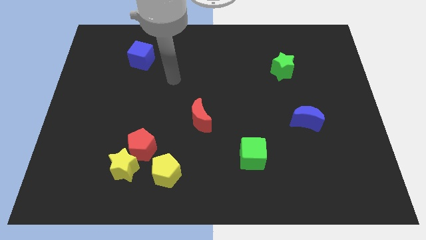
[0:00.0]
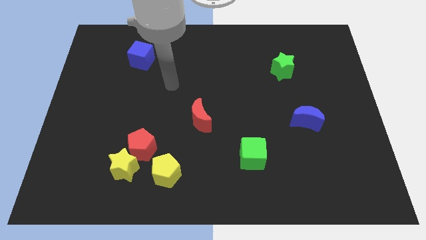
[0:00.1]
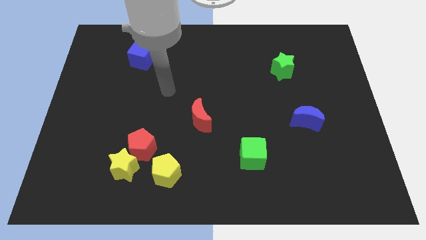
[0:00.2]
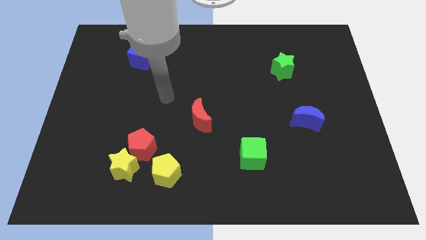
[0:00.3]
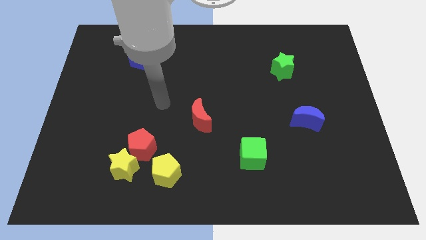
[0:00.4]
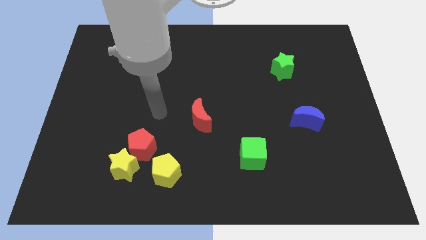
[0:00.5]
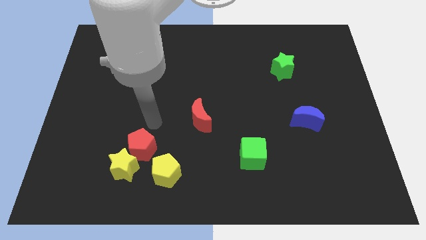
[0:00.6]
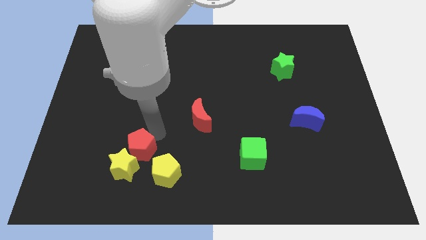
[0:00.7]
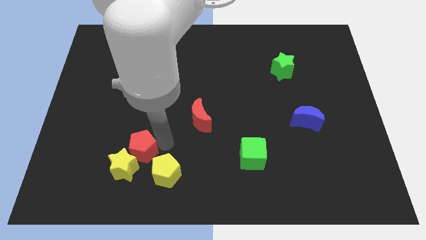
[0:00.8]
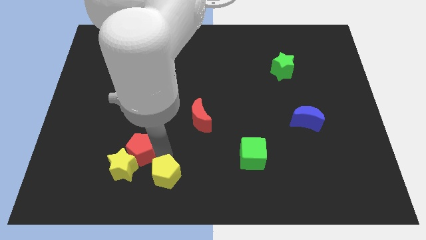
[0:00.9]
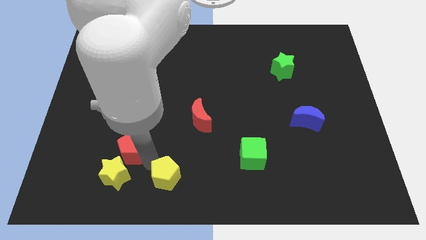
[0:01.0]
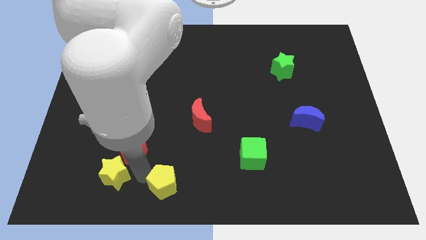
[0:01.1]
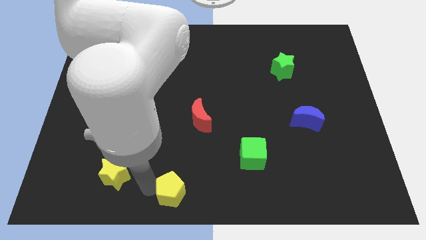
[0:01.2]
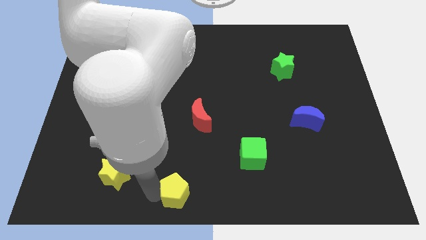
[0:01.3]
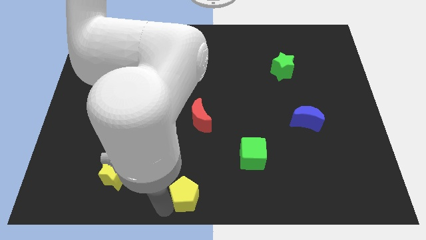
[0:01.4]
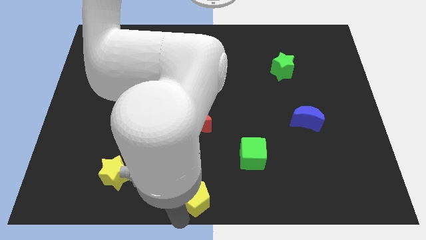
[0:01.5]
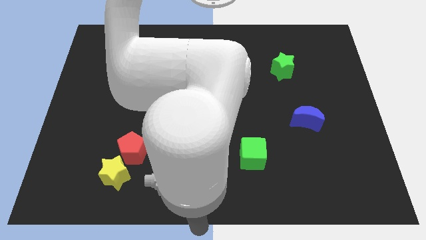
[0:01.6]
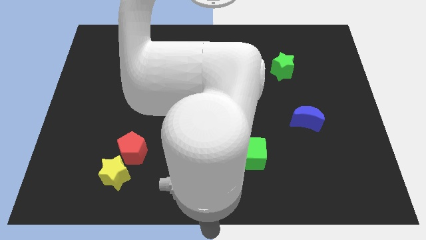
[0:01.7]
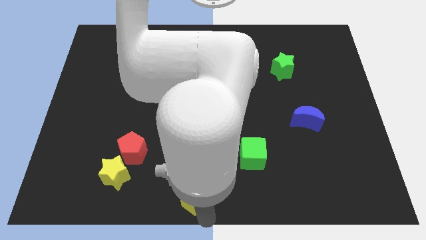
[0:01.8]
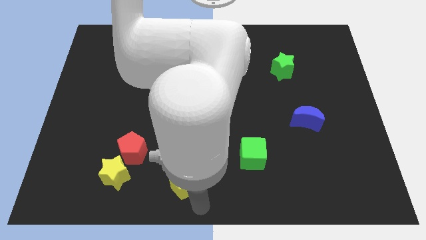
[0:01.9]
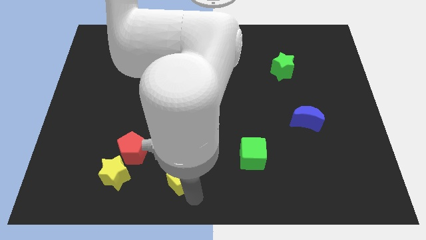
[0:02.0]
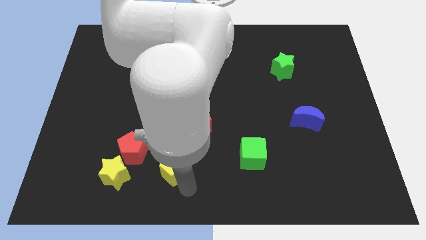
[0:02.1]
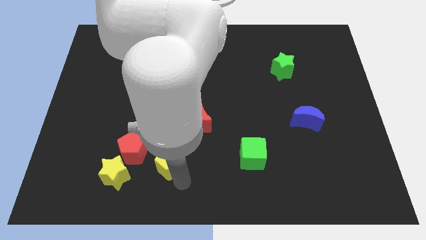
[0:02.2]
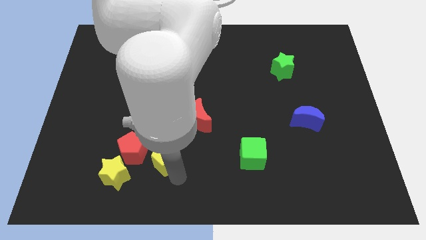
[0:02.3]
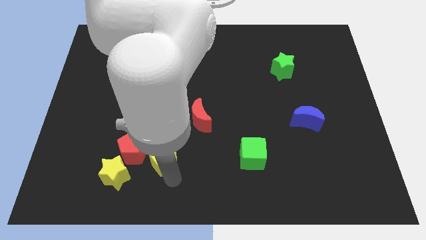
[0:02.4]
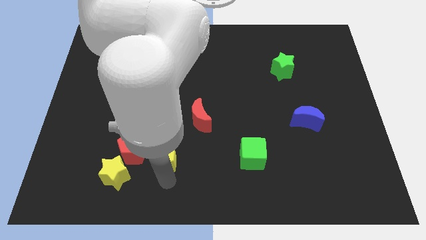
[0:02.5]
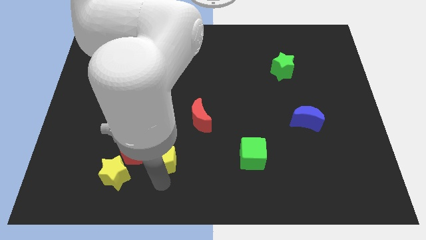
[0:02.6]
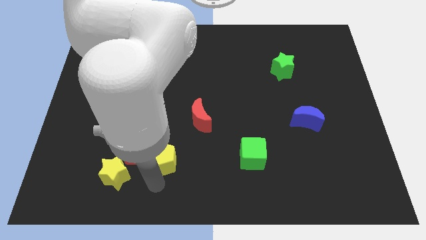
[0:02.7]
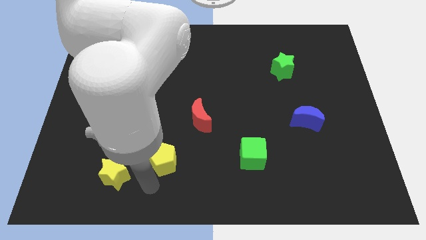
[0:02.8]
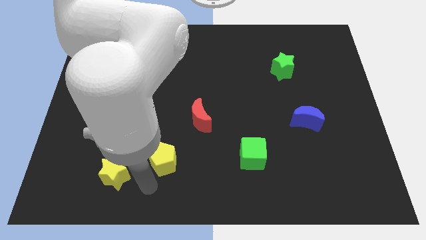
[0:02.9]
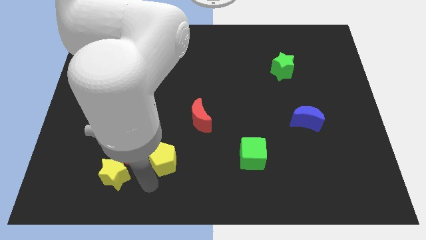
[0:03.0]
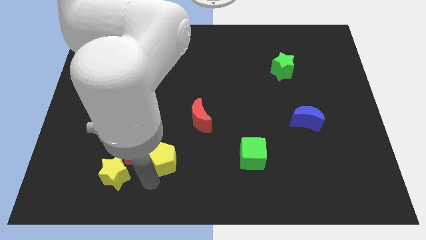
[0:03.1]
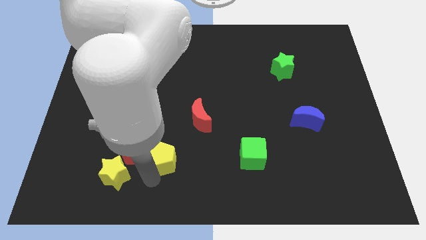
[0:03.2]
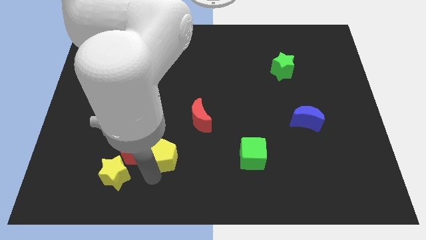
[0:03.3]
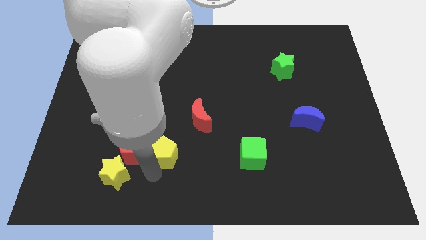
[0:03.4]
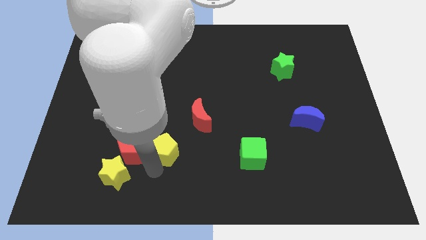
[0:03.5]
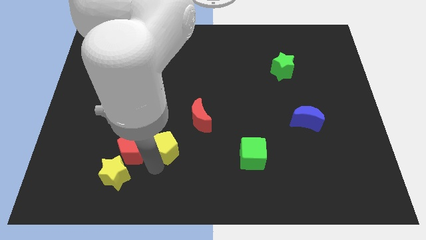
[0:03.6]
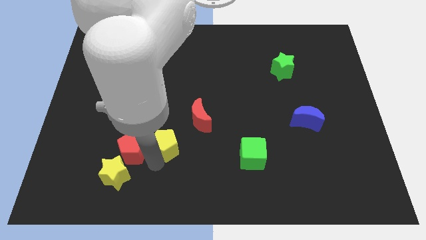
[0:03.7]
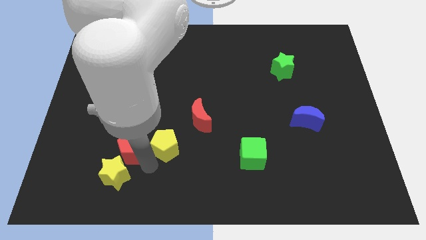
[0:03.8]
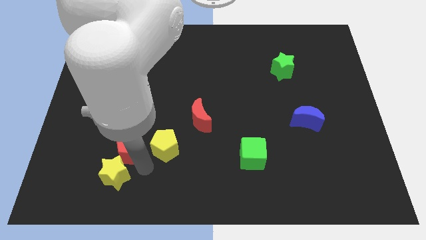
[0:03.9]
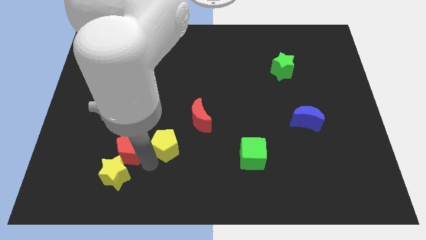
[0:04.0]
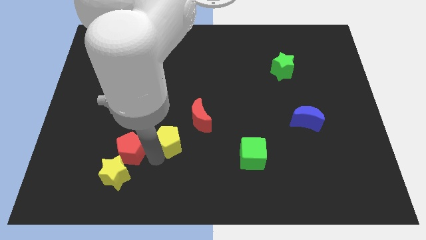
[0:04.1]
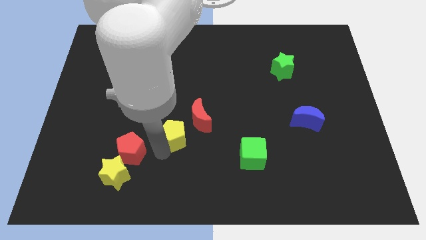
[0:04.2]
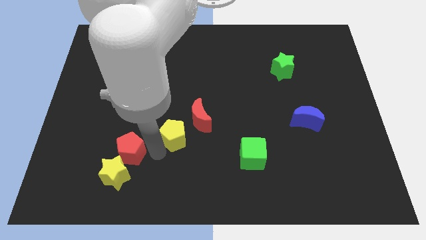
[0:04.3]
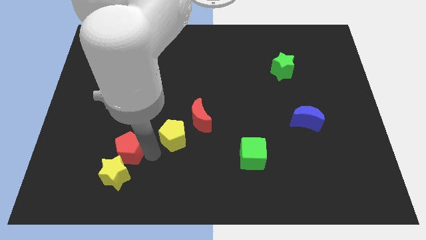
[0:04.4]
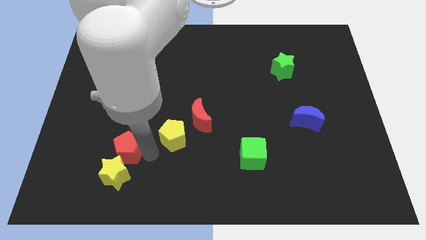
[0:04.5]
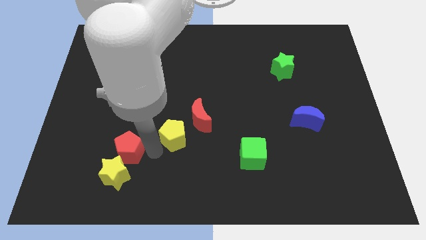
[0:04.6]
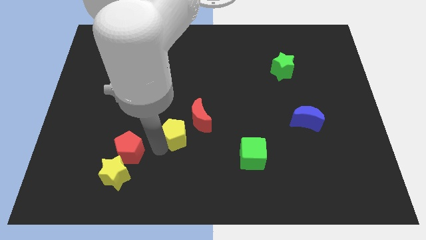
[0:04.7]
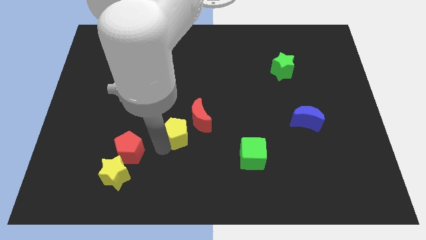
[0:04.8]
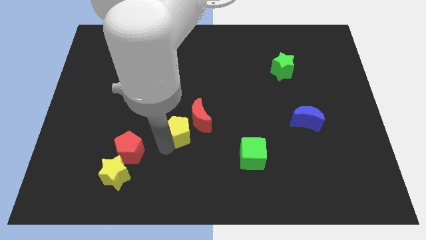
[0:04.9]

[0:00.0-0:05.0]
slide the yellow pentagon next to the red moon

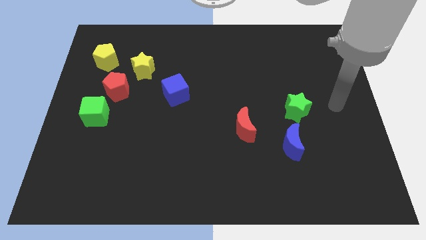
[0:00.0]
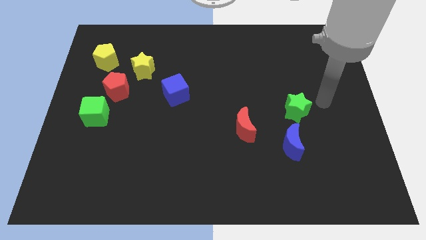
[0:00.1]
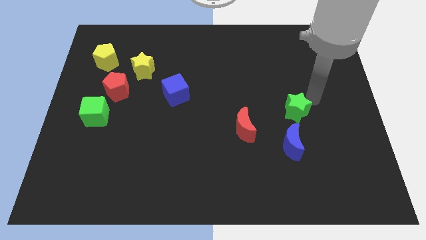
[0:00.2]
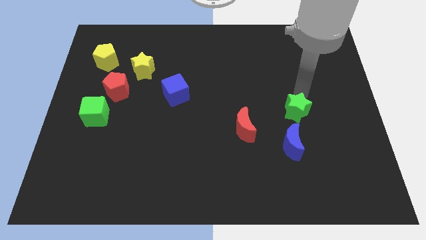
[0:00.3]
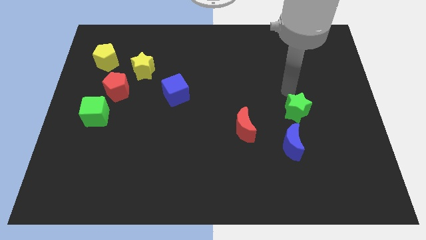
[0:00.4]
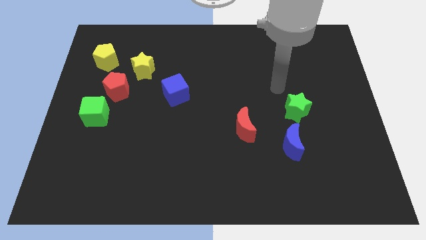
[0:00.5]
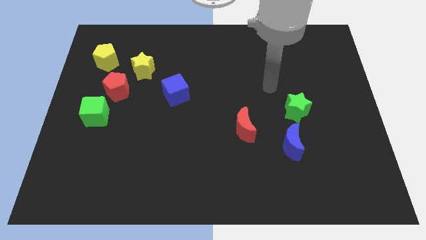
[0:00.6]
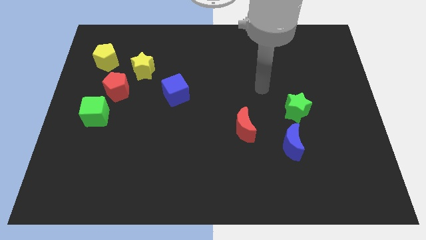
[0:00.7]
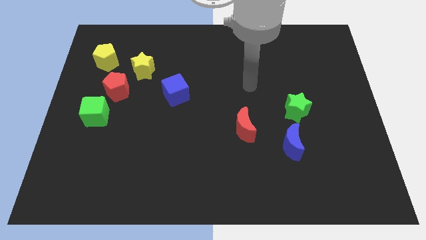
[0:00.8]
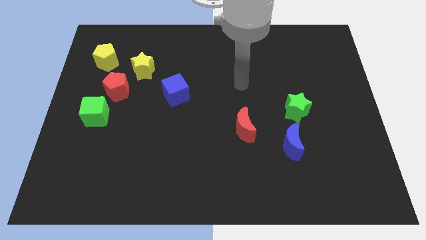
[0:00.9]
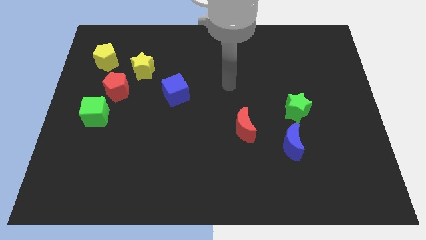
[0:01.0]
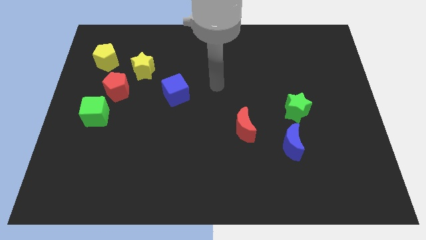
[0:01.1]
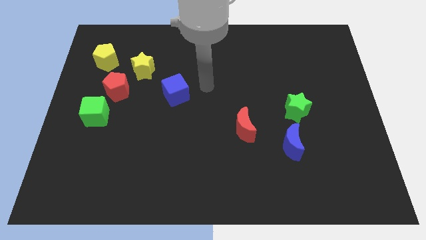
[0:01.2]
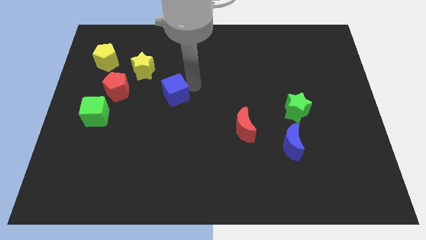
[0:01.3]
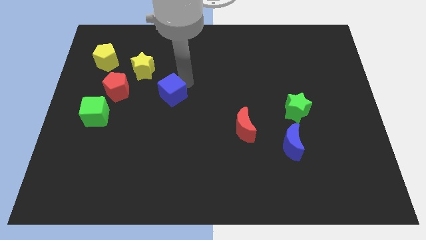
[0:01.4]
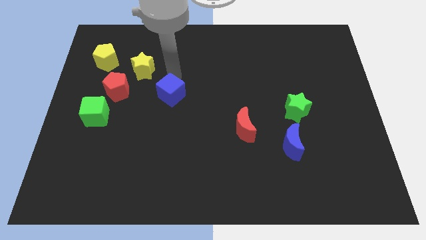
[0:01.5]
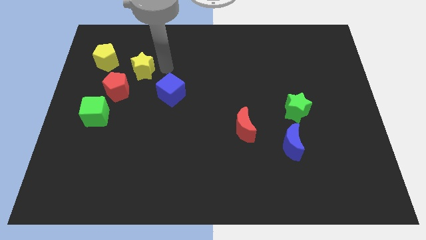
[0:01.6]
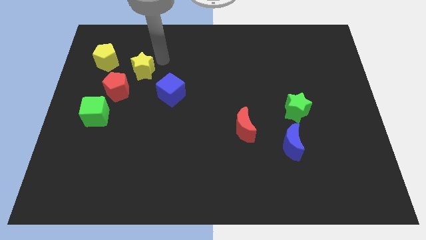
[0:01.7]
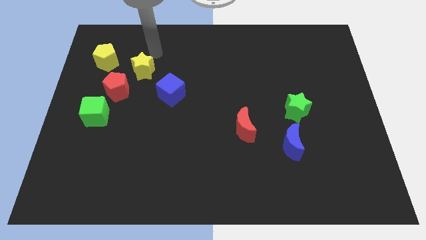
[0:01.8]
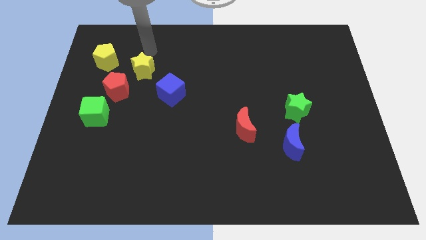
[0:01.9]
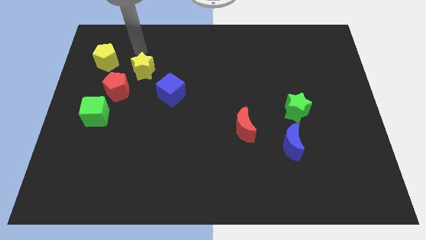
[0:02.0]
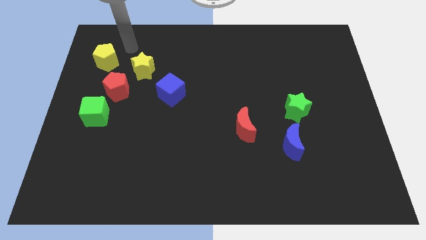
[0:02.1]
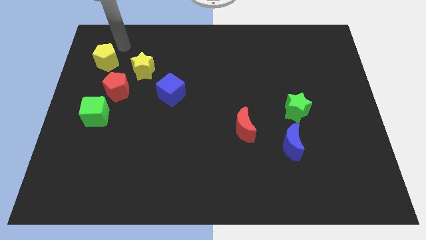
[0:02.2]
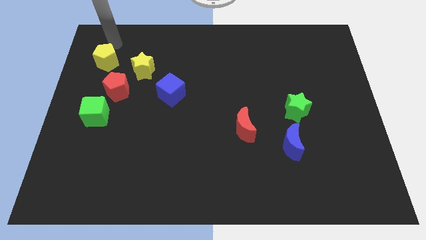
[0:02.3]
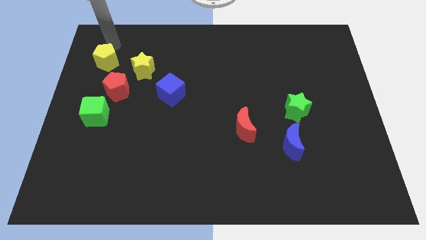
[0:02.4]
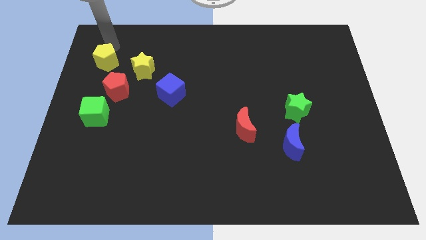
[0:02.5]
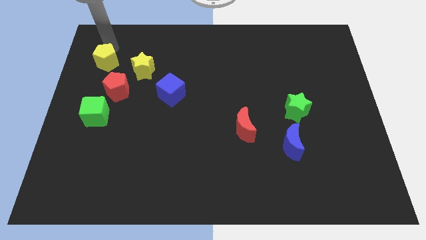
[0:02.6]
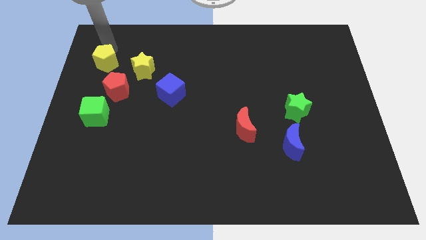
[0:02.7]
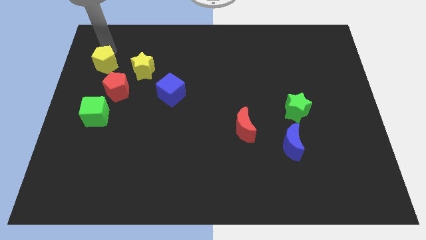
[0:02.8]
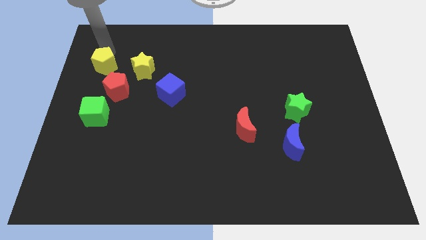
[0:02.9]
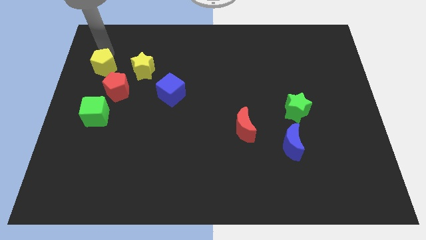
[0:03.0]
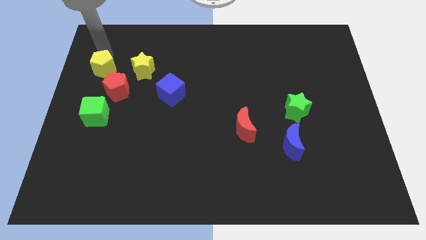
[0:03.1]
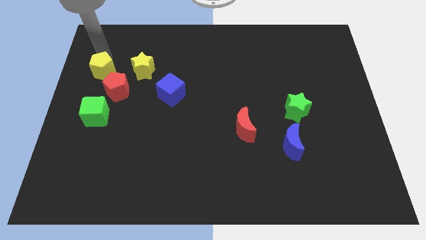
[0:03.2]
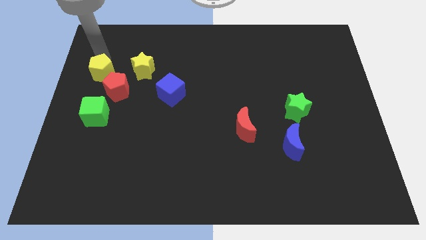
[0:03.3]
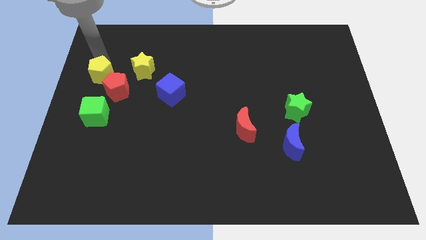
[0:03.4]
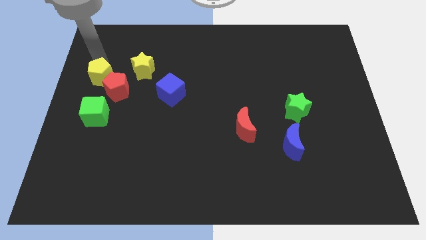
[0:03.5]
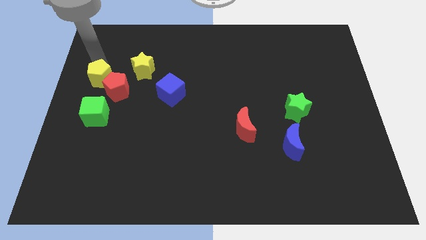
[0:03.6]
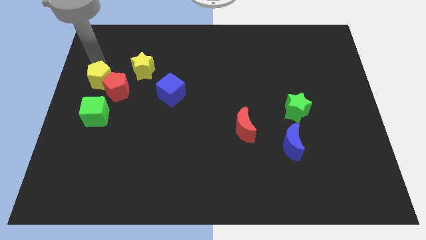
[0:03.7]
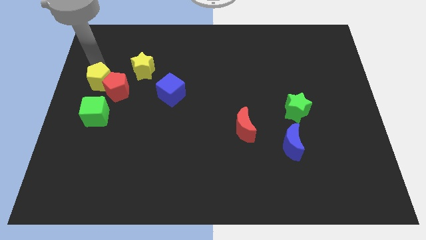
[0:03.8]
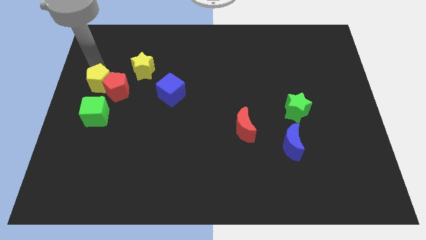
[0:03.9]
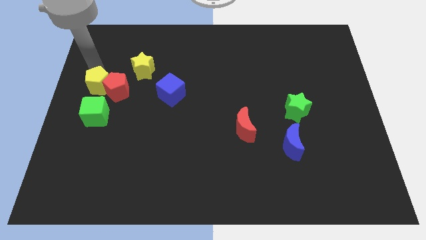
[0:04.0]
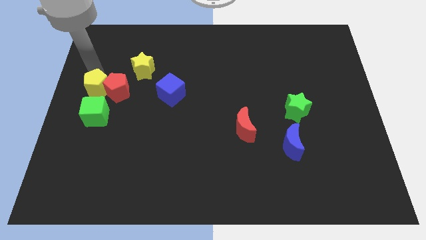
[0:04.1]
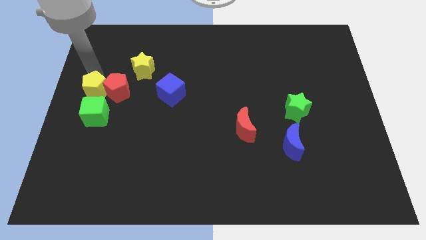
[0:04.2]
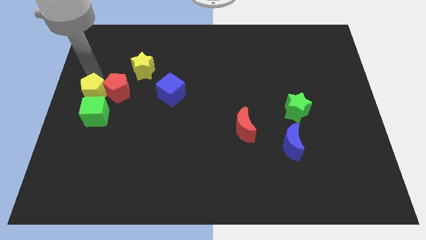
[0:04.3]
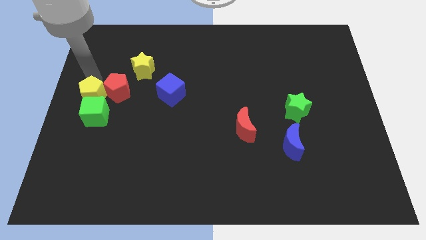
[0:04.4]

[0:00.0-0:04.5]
move the yellow pentagon next to the green cube
